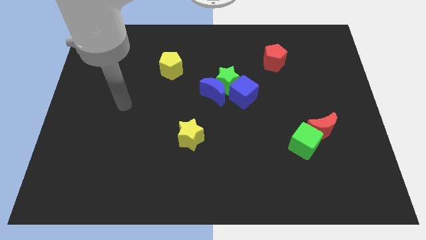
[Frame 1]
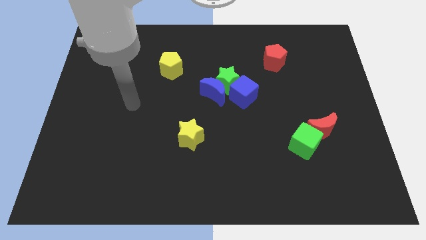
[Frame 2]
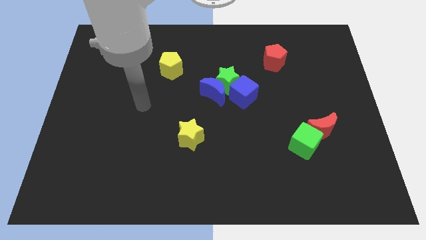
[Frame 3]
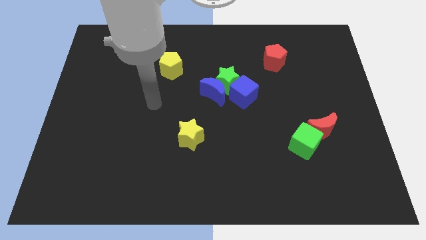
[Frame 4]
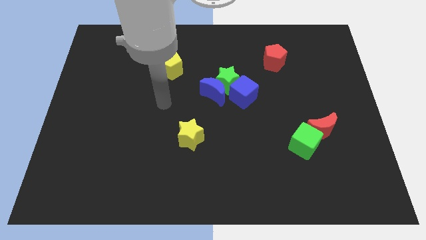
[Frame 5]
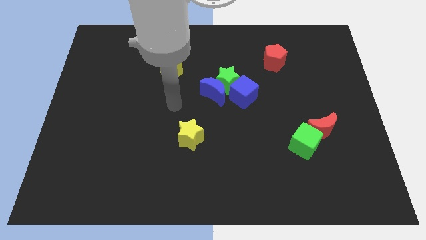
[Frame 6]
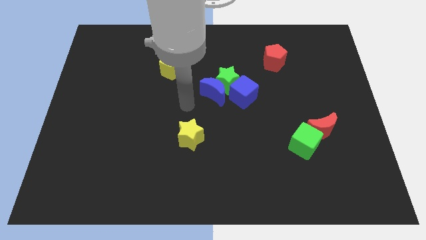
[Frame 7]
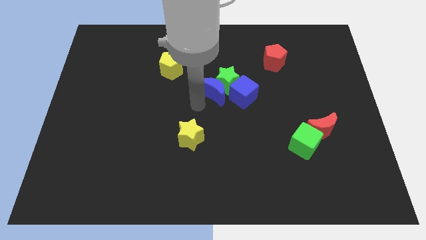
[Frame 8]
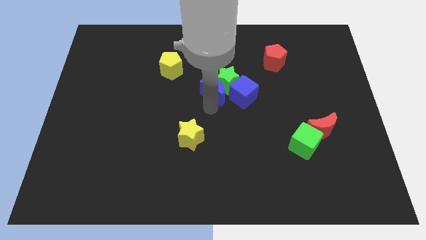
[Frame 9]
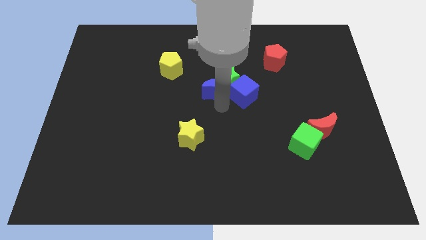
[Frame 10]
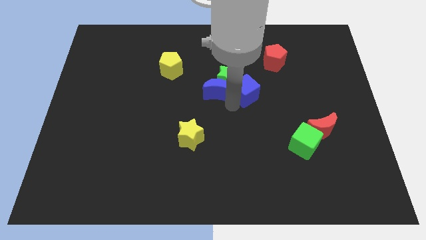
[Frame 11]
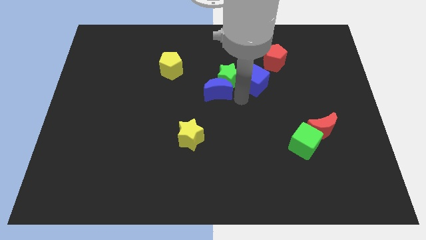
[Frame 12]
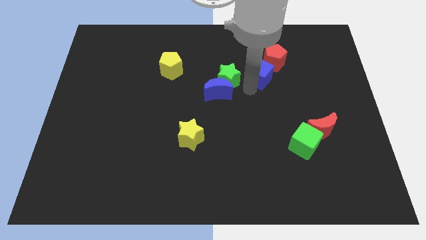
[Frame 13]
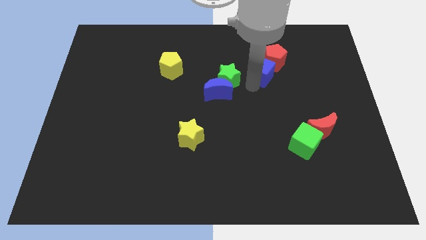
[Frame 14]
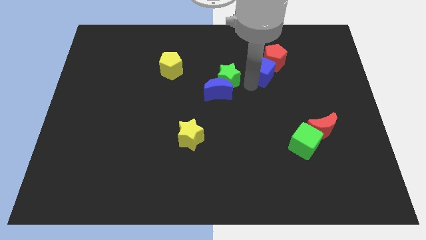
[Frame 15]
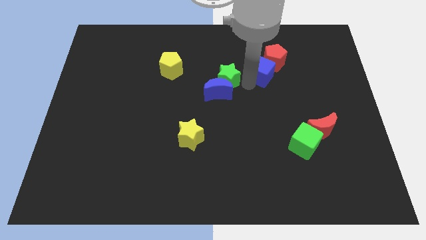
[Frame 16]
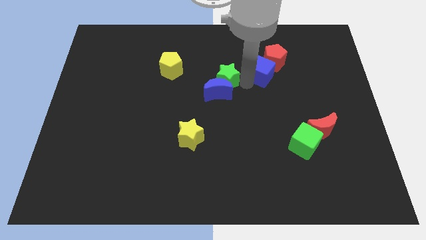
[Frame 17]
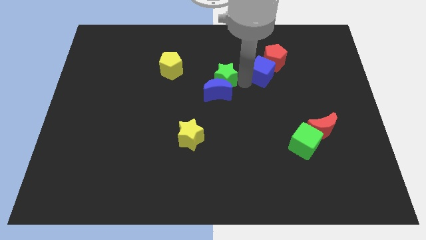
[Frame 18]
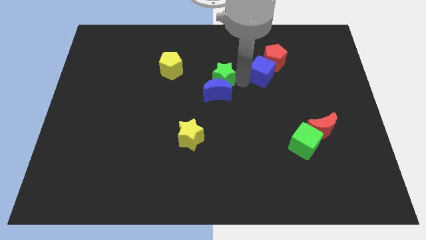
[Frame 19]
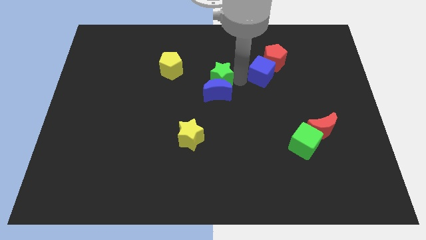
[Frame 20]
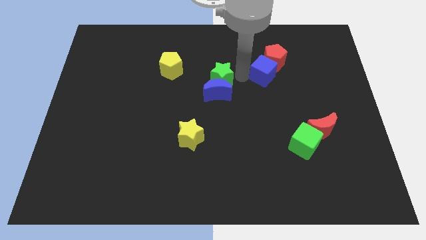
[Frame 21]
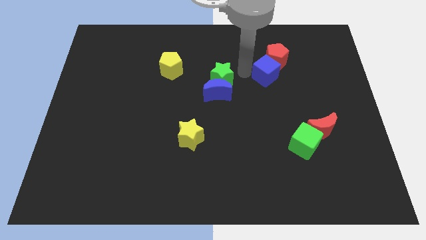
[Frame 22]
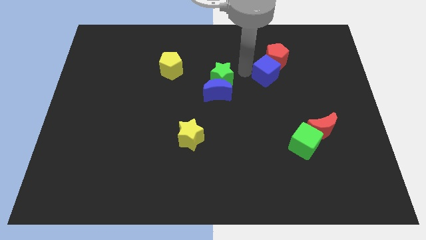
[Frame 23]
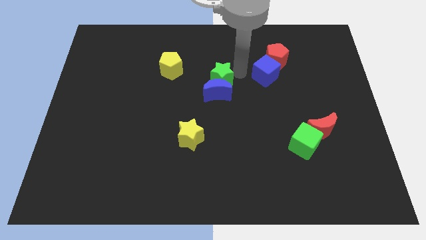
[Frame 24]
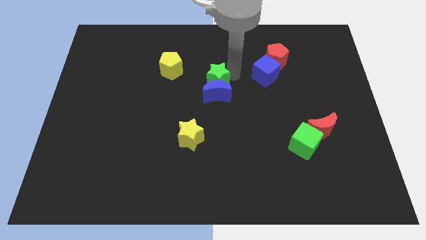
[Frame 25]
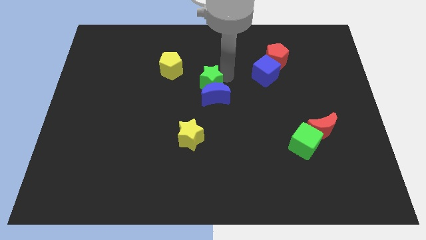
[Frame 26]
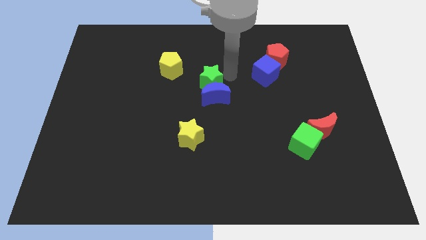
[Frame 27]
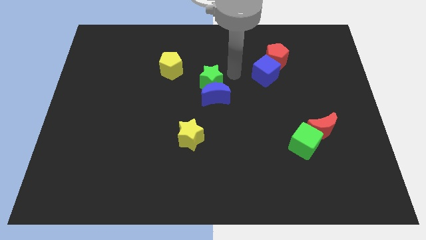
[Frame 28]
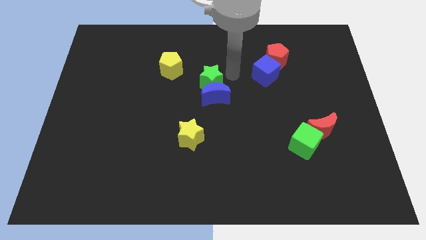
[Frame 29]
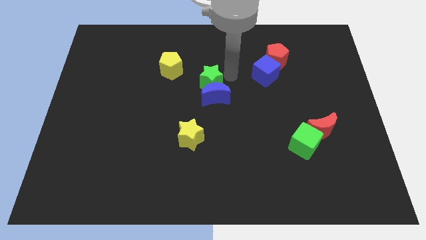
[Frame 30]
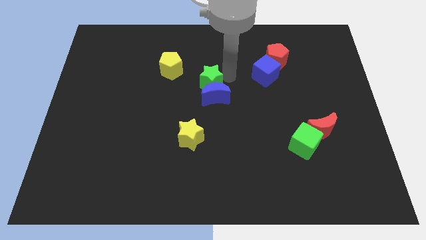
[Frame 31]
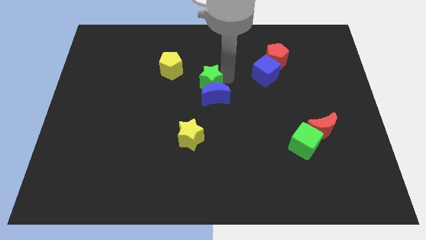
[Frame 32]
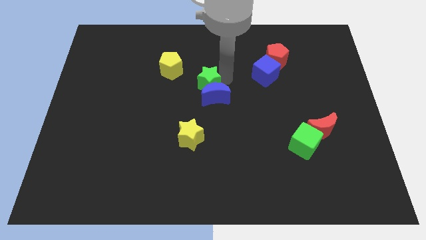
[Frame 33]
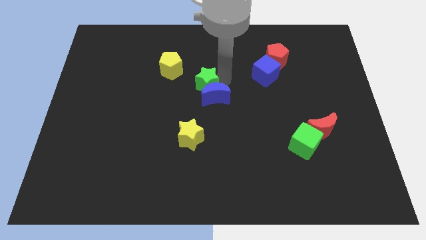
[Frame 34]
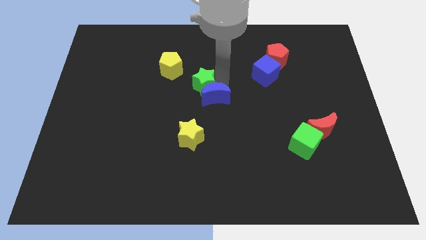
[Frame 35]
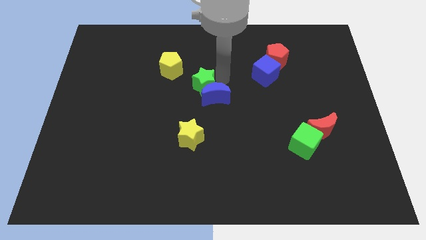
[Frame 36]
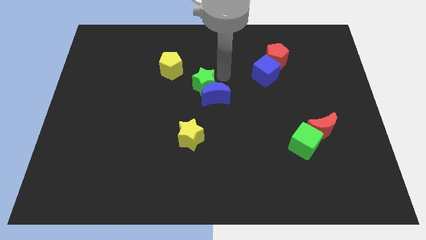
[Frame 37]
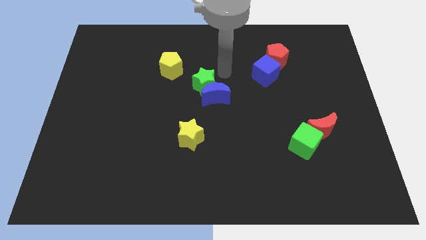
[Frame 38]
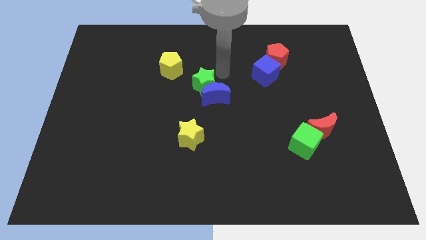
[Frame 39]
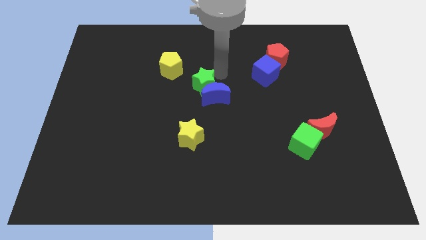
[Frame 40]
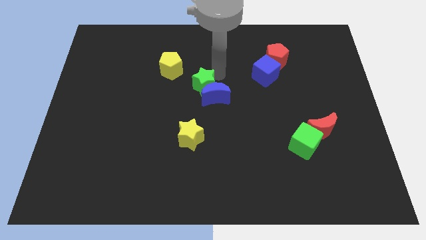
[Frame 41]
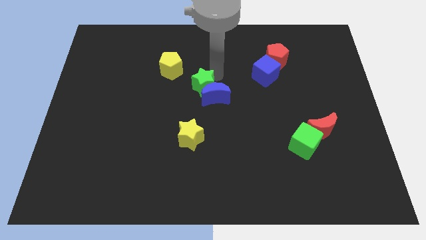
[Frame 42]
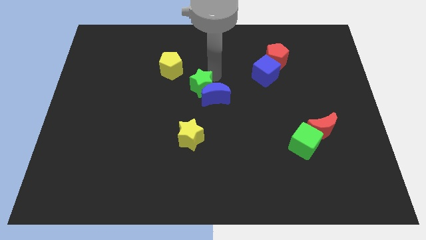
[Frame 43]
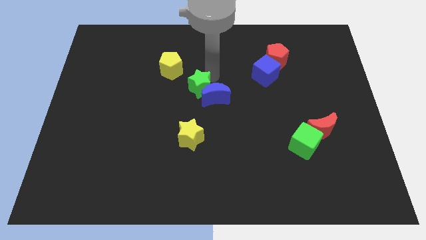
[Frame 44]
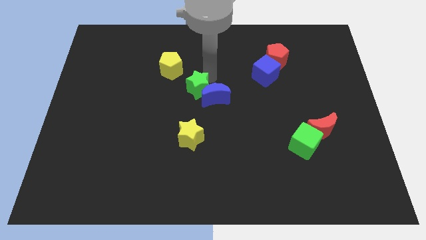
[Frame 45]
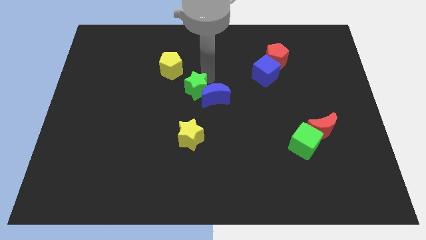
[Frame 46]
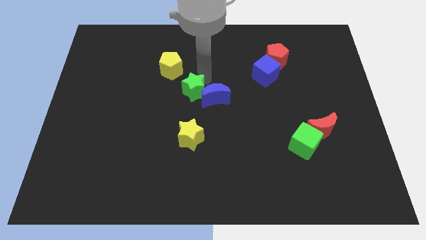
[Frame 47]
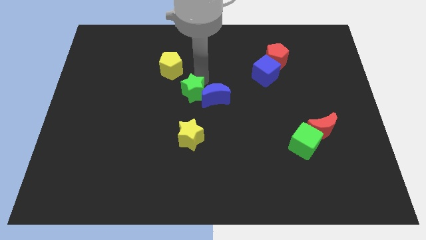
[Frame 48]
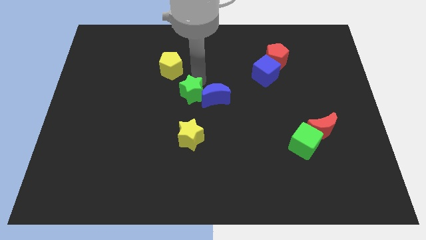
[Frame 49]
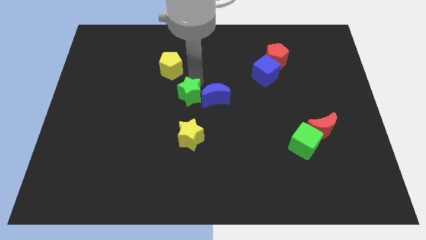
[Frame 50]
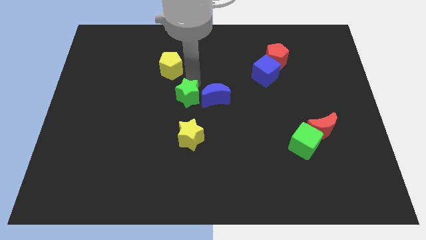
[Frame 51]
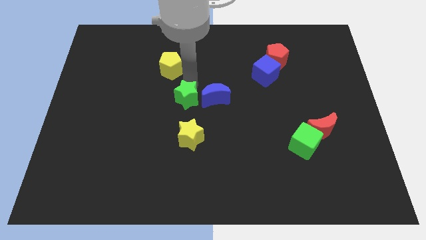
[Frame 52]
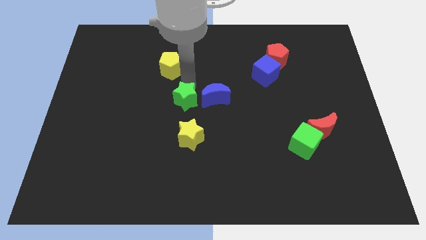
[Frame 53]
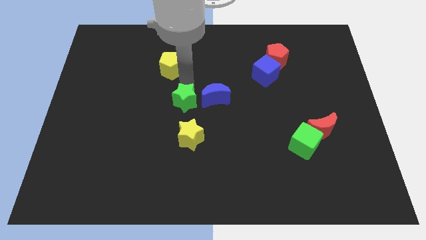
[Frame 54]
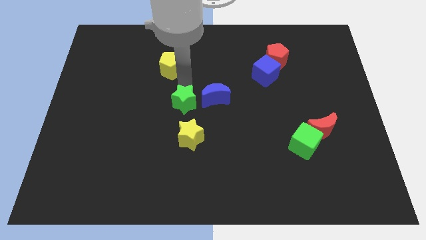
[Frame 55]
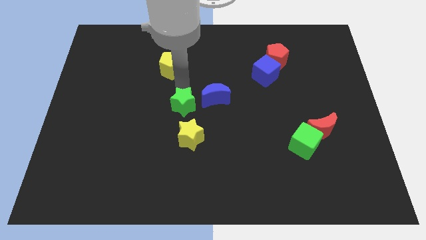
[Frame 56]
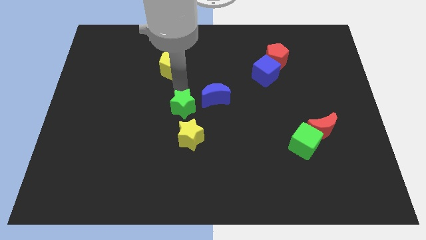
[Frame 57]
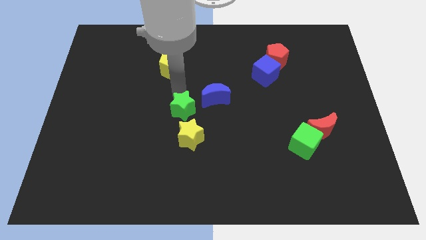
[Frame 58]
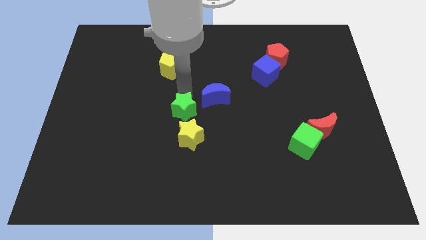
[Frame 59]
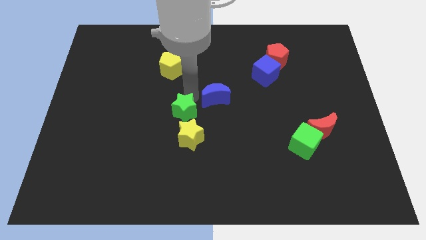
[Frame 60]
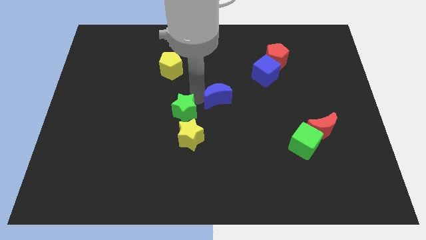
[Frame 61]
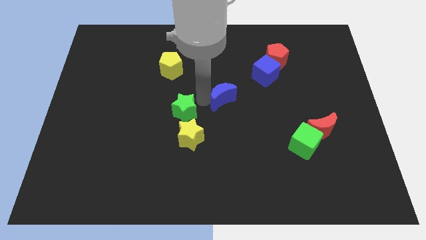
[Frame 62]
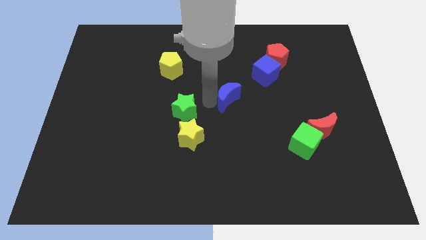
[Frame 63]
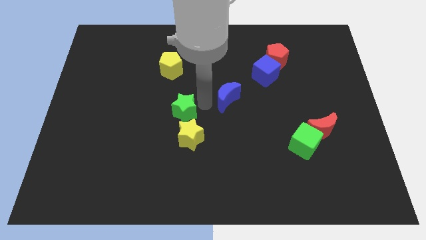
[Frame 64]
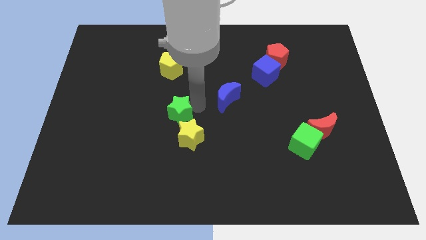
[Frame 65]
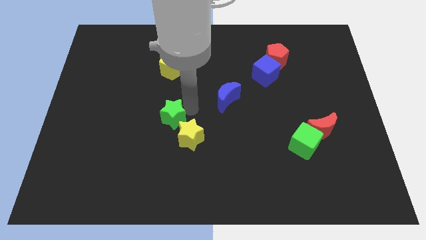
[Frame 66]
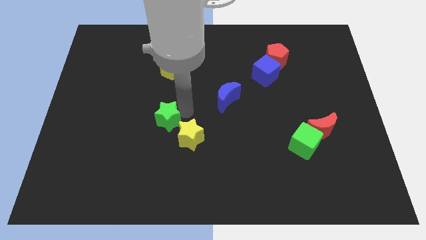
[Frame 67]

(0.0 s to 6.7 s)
slide the green star just left of the yellow star

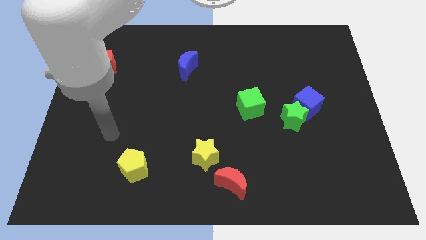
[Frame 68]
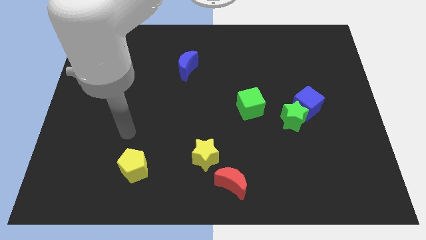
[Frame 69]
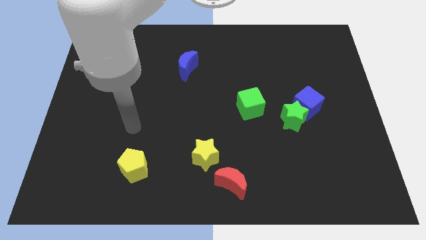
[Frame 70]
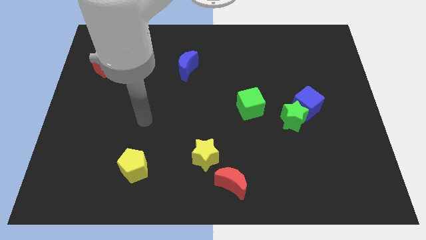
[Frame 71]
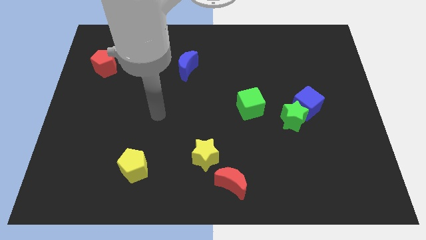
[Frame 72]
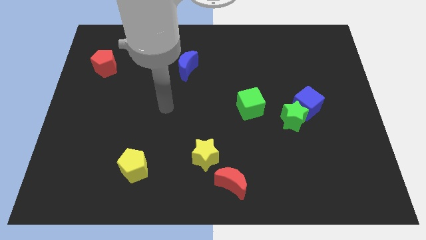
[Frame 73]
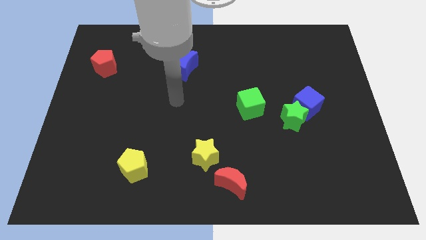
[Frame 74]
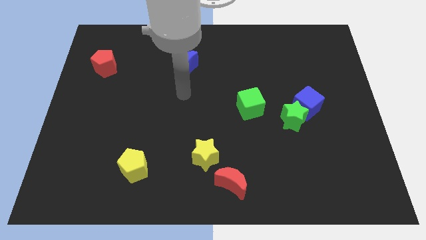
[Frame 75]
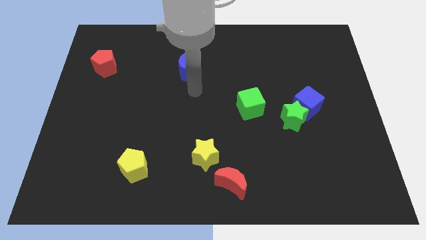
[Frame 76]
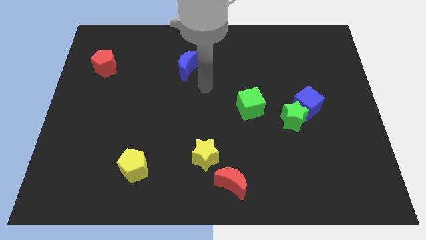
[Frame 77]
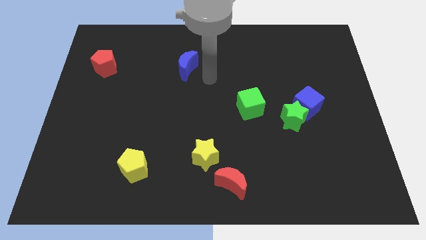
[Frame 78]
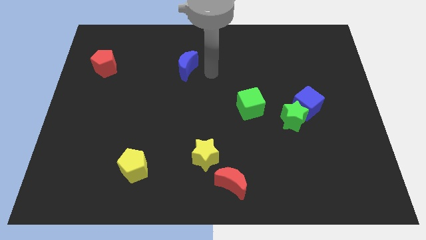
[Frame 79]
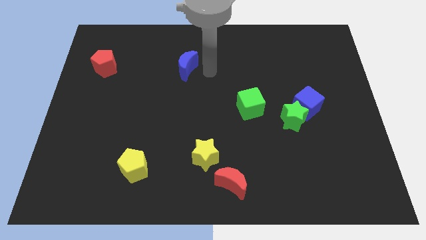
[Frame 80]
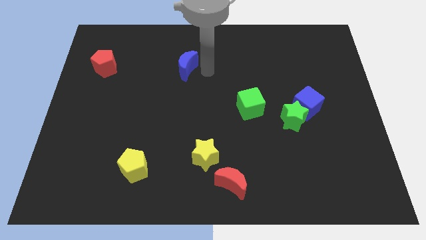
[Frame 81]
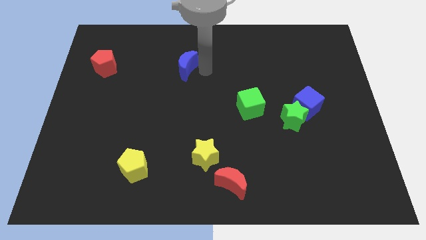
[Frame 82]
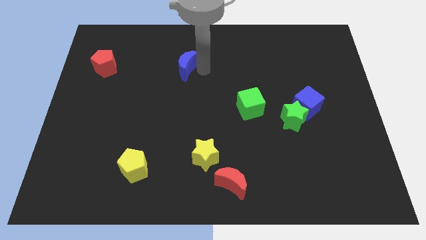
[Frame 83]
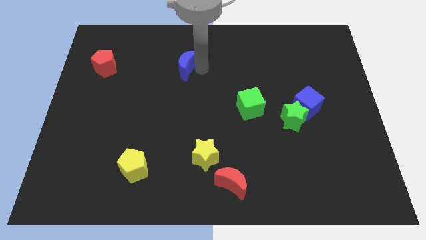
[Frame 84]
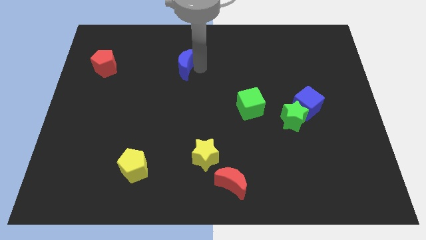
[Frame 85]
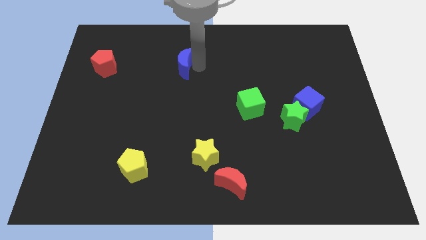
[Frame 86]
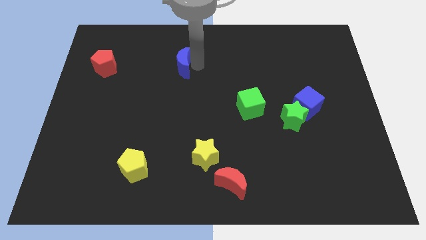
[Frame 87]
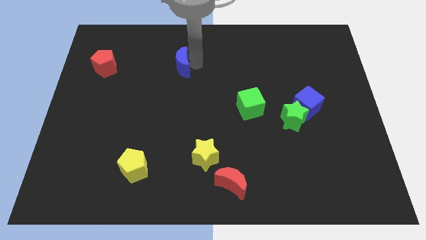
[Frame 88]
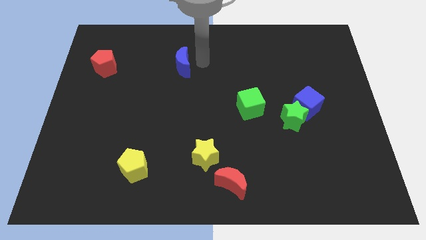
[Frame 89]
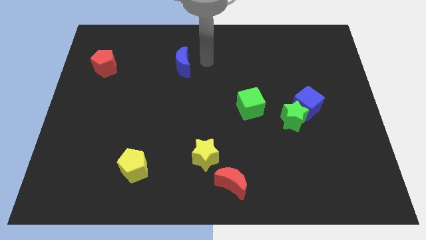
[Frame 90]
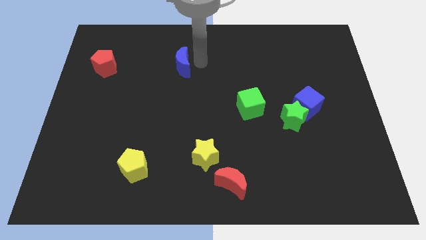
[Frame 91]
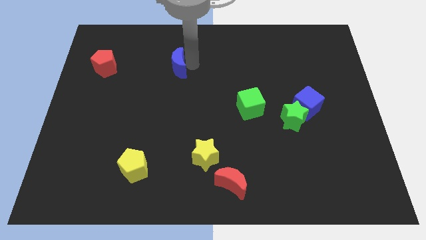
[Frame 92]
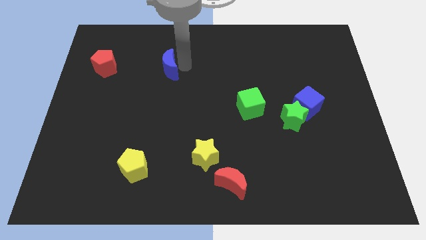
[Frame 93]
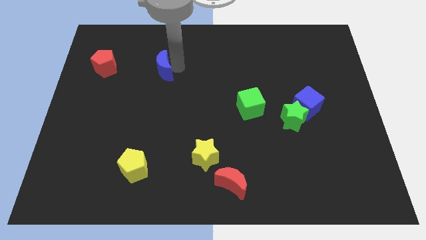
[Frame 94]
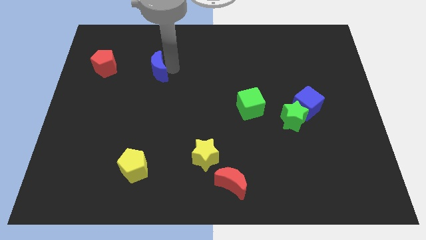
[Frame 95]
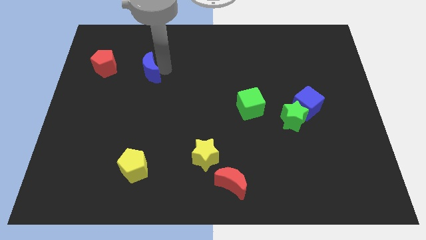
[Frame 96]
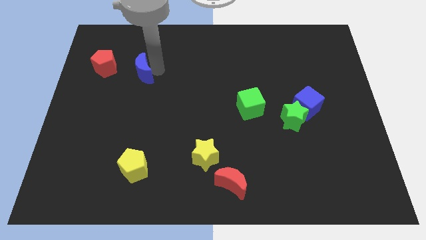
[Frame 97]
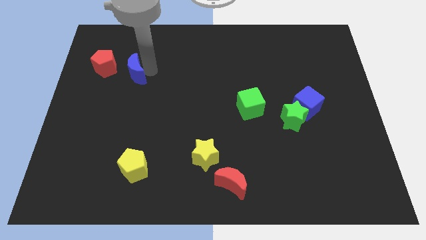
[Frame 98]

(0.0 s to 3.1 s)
put the blue moon to the bottom right side of the red pentagon
